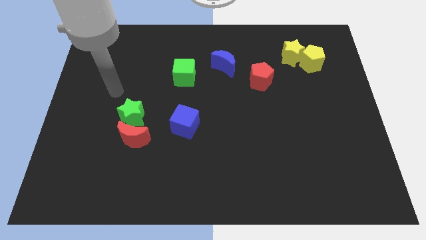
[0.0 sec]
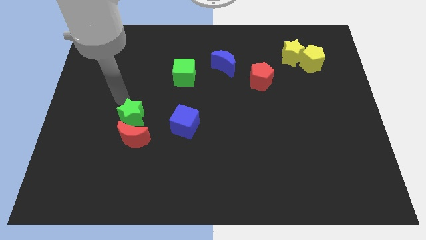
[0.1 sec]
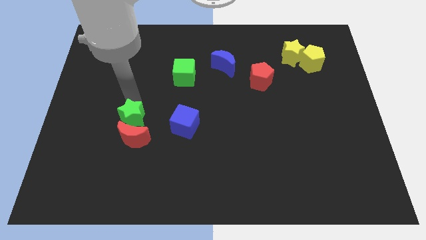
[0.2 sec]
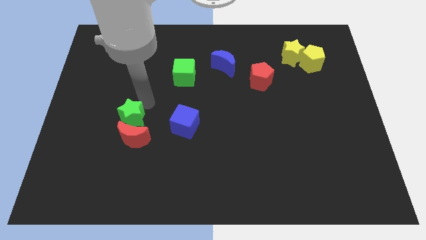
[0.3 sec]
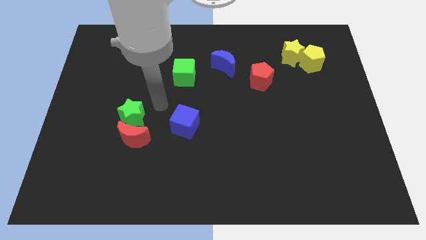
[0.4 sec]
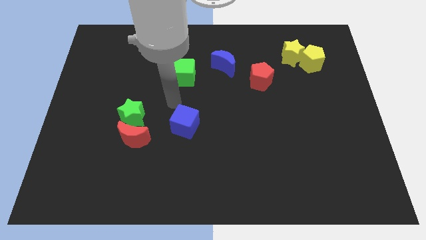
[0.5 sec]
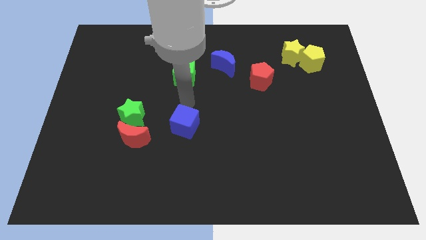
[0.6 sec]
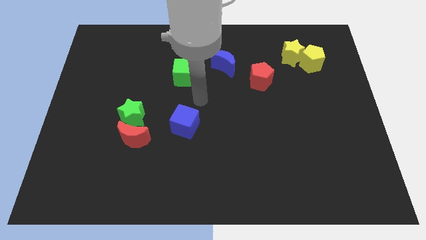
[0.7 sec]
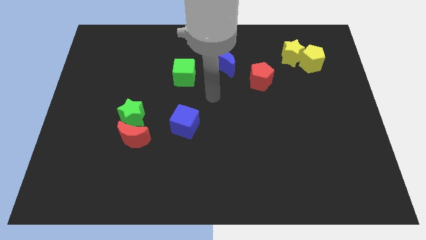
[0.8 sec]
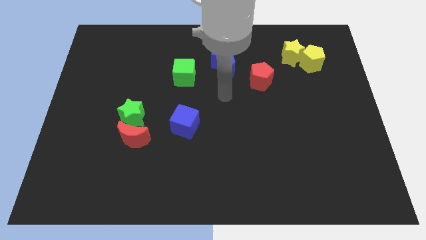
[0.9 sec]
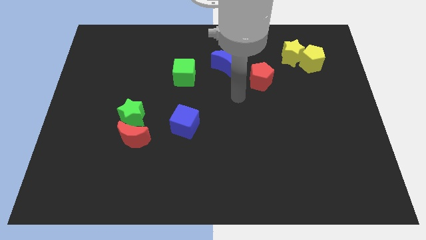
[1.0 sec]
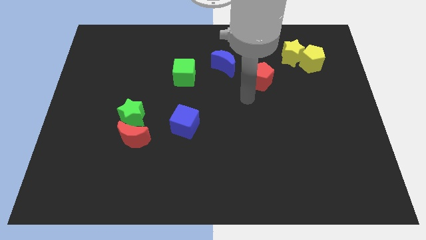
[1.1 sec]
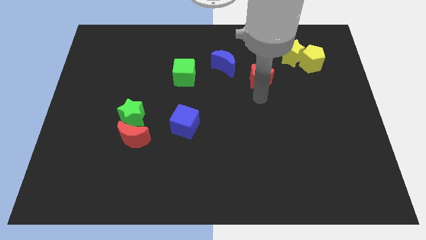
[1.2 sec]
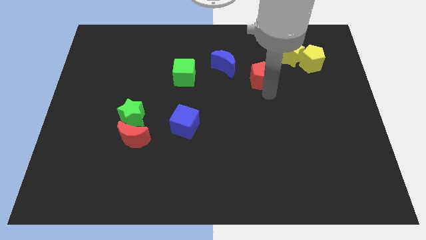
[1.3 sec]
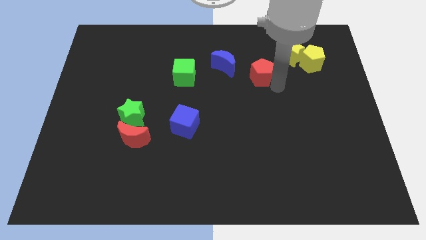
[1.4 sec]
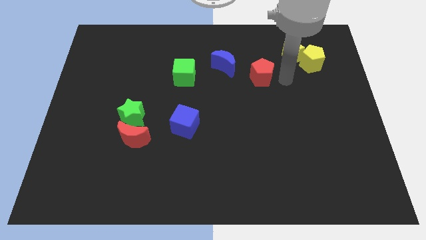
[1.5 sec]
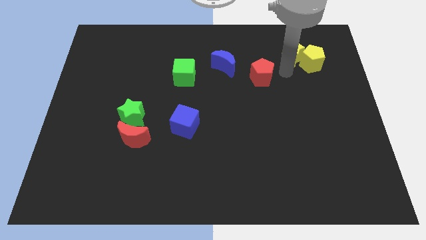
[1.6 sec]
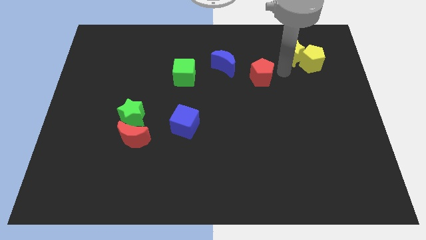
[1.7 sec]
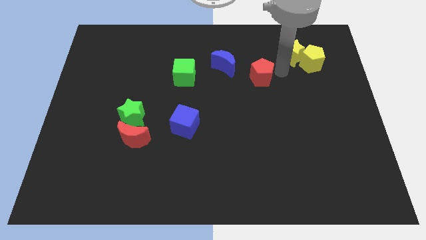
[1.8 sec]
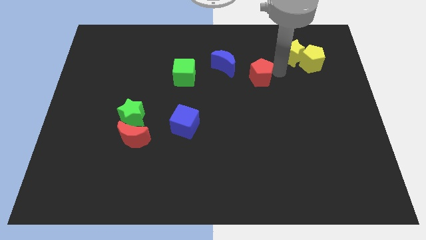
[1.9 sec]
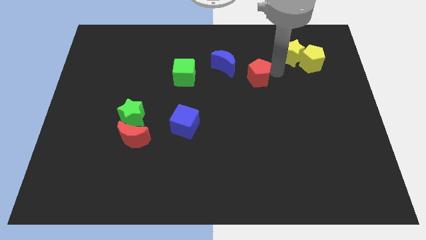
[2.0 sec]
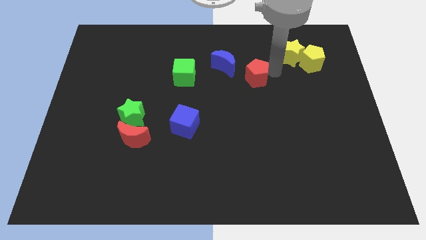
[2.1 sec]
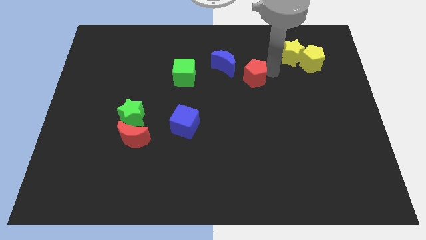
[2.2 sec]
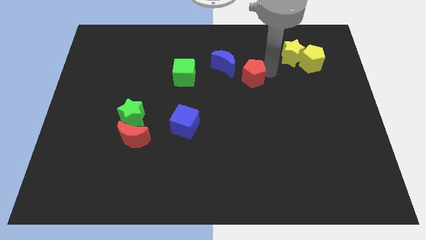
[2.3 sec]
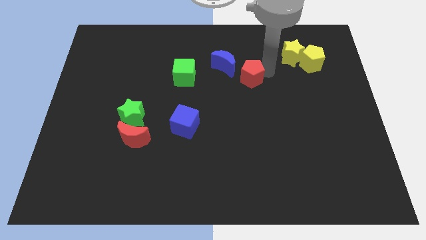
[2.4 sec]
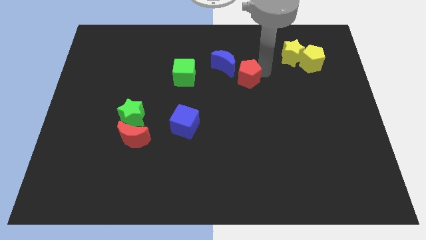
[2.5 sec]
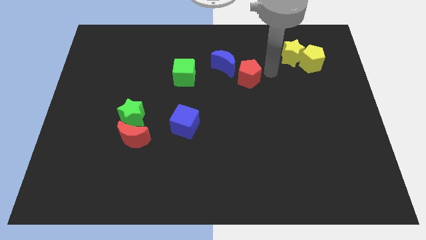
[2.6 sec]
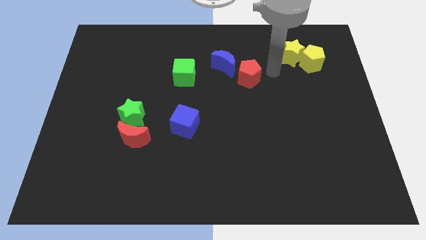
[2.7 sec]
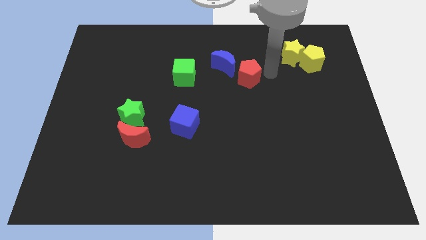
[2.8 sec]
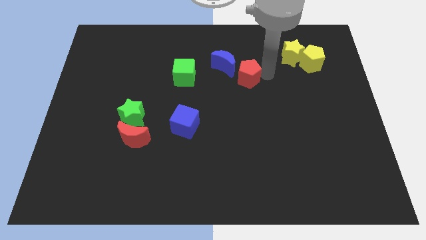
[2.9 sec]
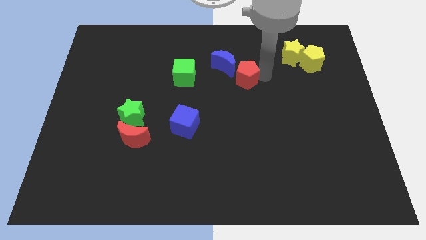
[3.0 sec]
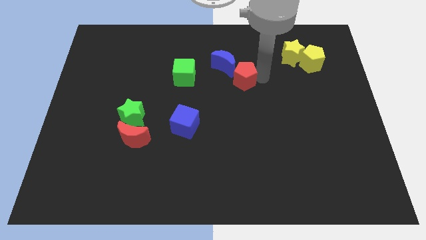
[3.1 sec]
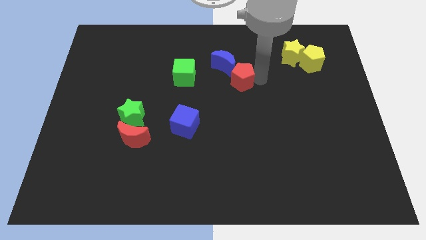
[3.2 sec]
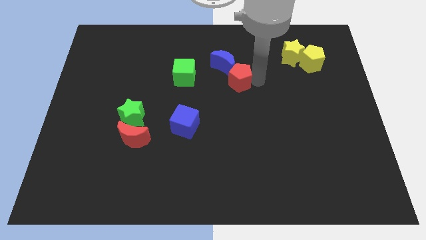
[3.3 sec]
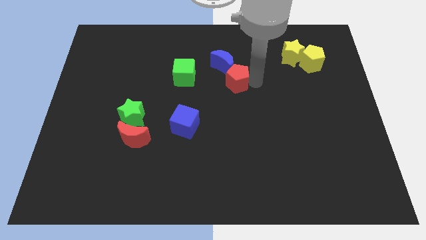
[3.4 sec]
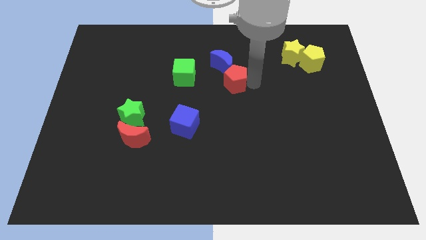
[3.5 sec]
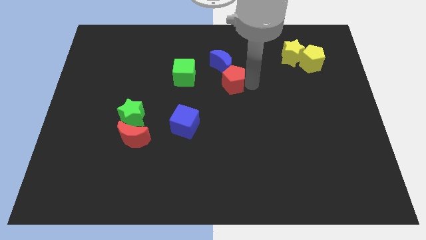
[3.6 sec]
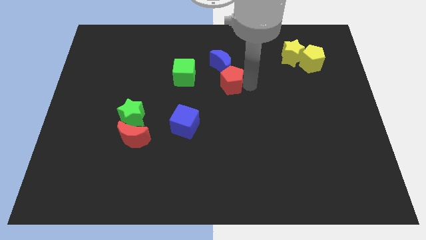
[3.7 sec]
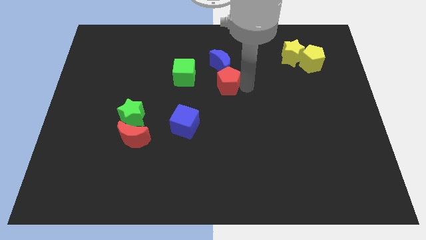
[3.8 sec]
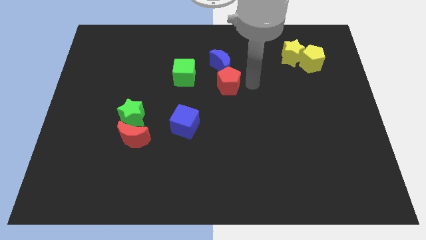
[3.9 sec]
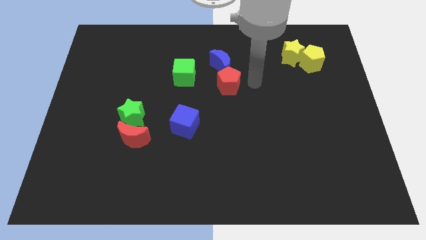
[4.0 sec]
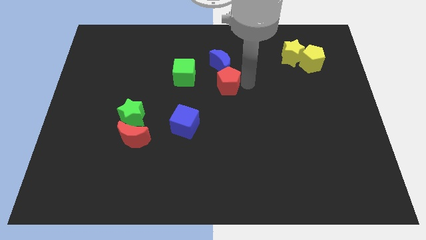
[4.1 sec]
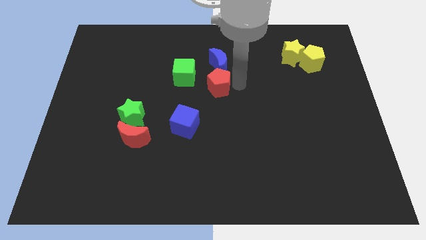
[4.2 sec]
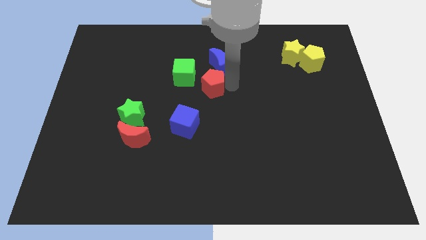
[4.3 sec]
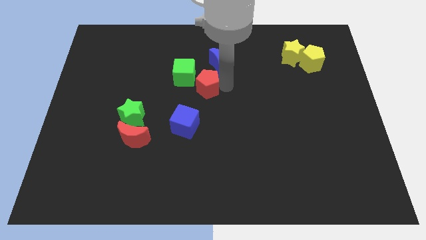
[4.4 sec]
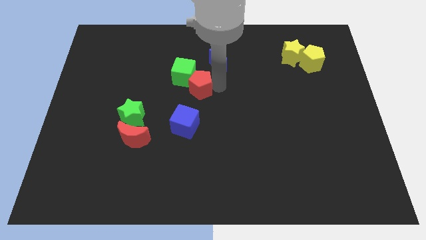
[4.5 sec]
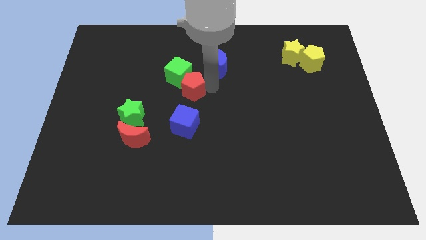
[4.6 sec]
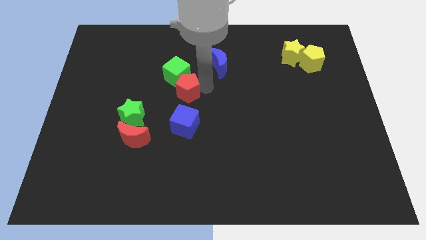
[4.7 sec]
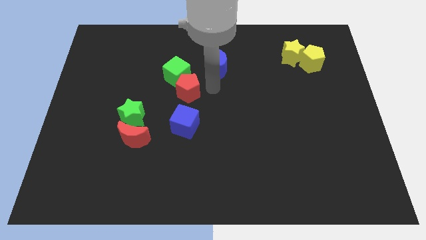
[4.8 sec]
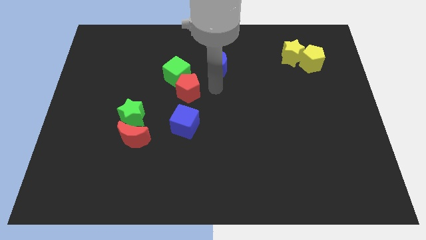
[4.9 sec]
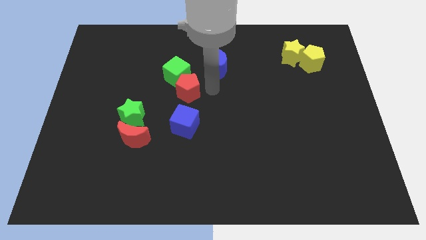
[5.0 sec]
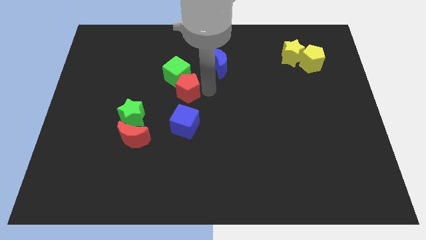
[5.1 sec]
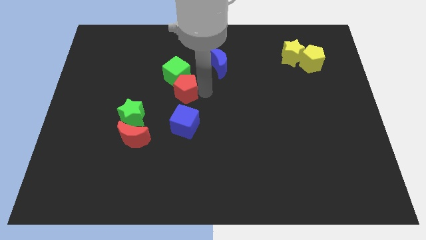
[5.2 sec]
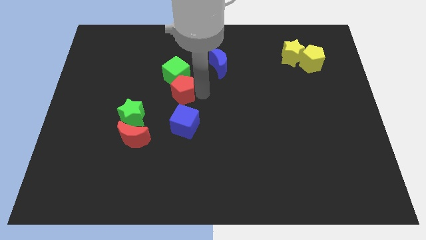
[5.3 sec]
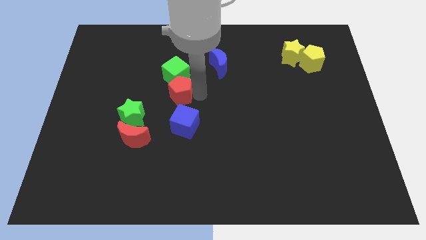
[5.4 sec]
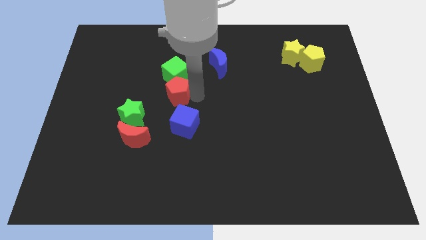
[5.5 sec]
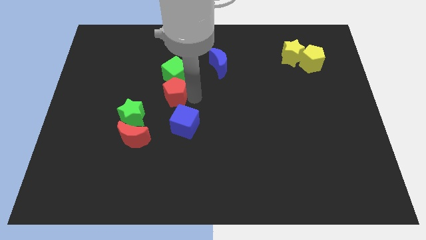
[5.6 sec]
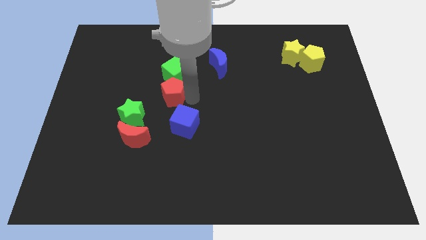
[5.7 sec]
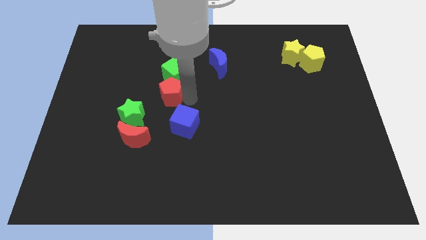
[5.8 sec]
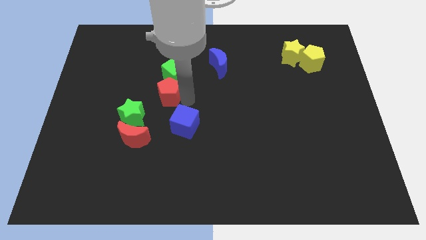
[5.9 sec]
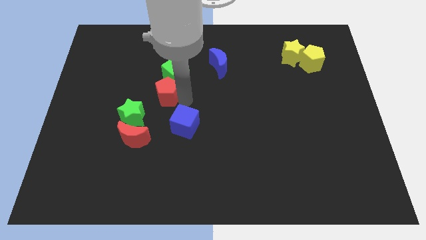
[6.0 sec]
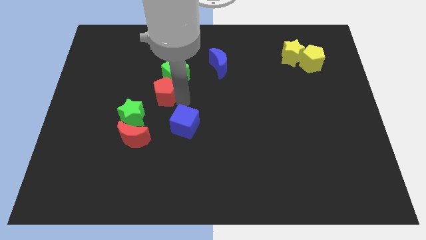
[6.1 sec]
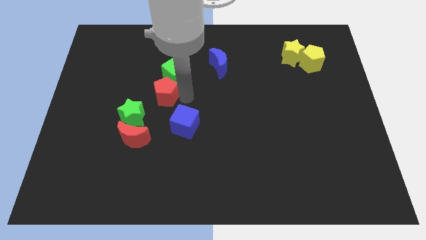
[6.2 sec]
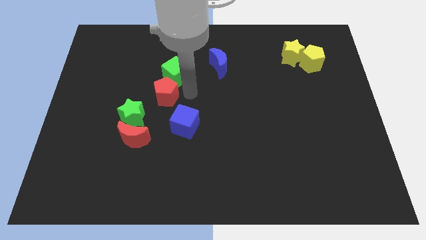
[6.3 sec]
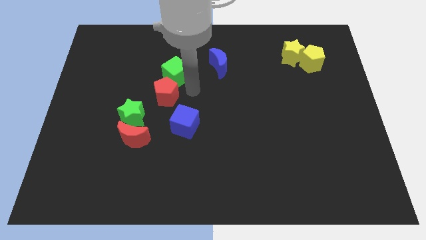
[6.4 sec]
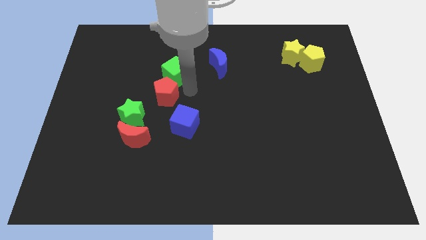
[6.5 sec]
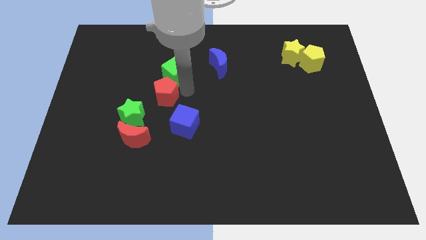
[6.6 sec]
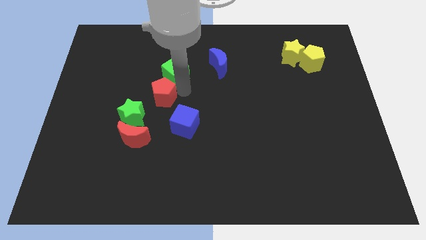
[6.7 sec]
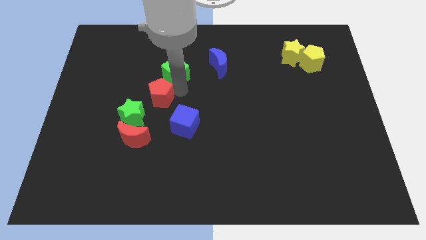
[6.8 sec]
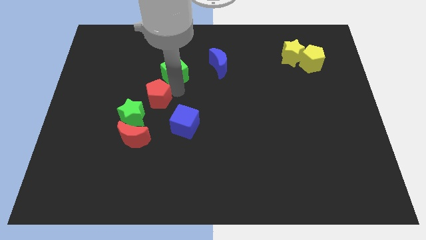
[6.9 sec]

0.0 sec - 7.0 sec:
slide the red pentagon to the top of the red moon

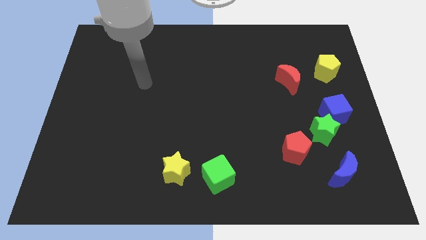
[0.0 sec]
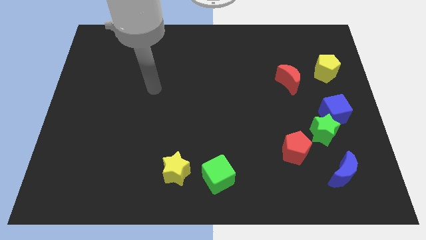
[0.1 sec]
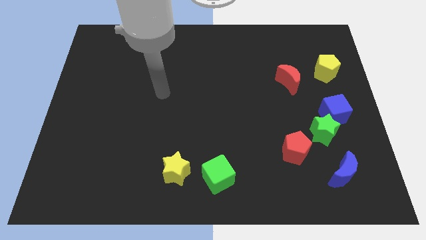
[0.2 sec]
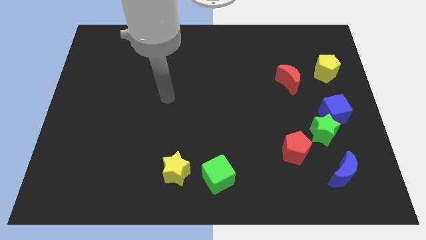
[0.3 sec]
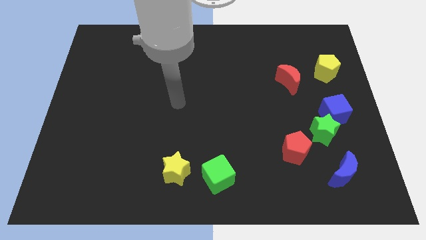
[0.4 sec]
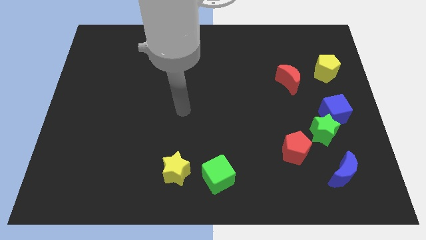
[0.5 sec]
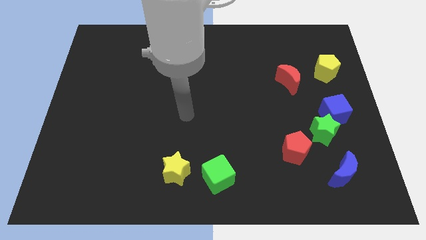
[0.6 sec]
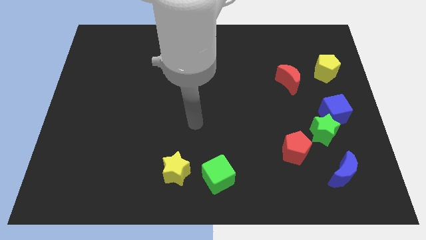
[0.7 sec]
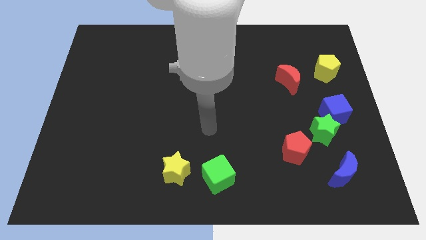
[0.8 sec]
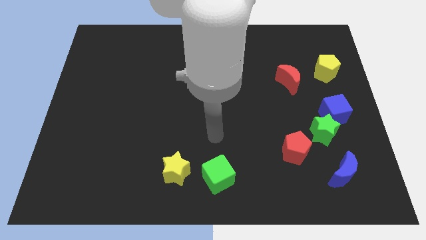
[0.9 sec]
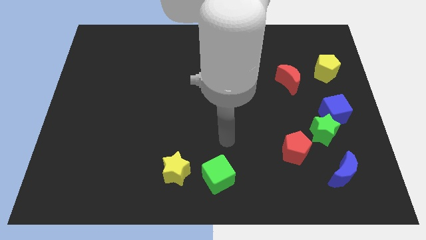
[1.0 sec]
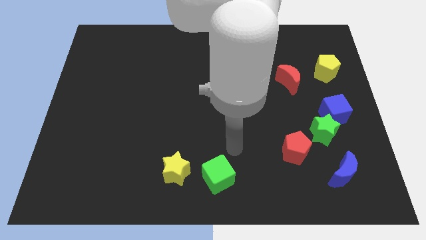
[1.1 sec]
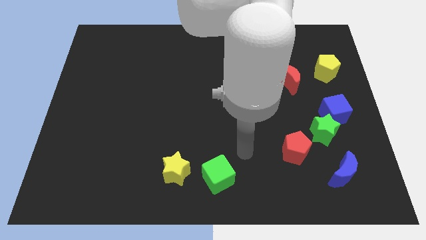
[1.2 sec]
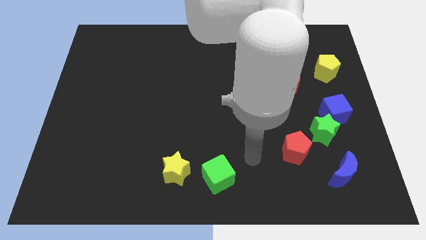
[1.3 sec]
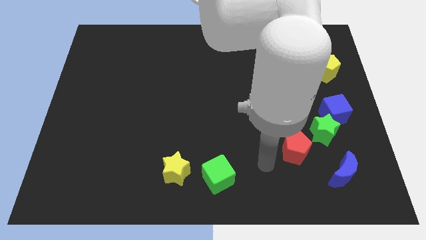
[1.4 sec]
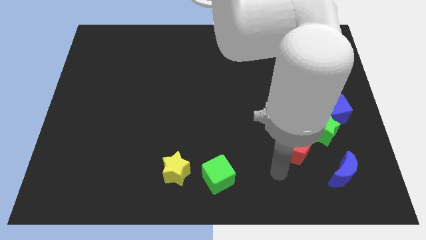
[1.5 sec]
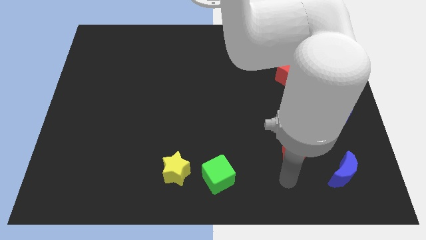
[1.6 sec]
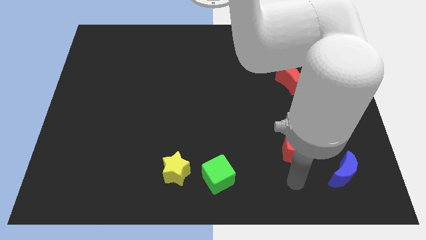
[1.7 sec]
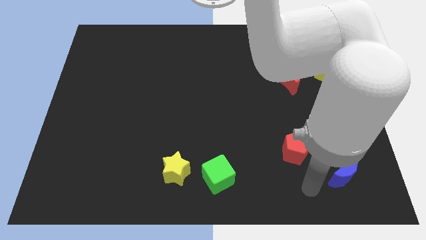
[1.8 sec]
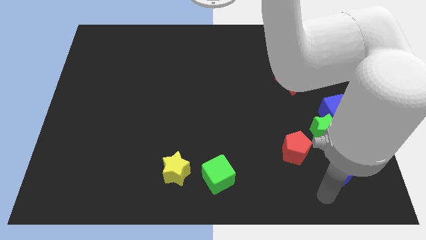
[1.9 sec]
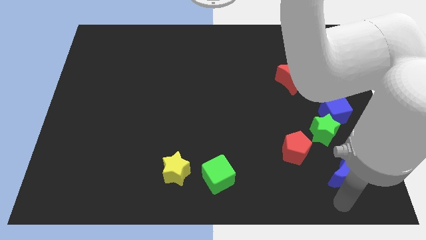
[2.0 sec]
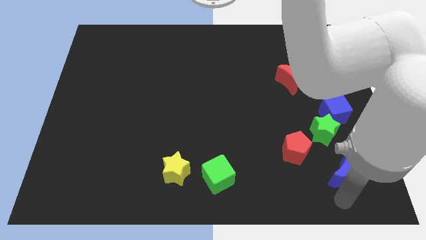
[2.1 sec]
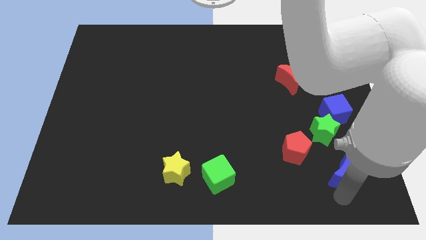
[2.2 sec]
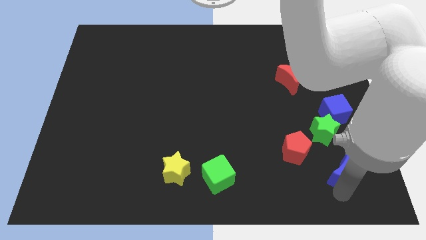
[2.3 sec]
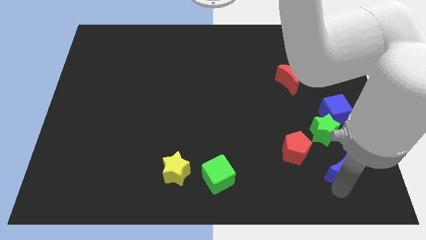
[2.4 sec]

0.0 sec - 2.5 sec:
put the blue moon to the right of the red pentagon
